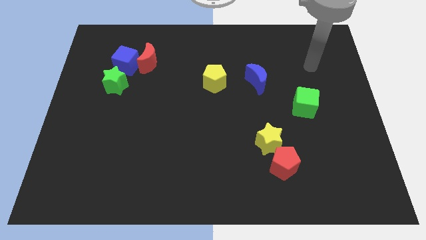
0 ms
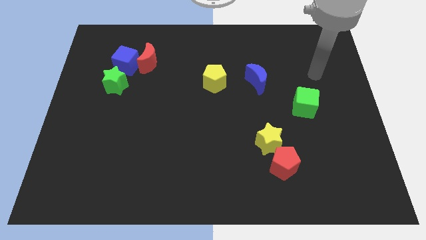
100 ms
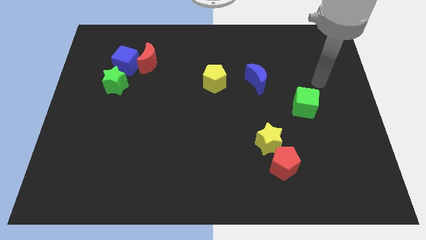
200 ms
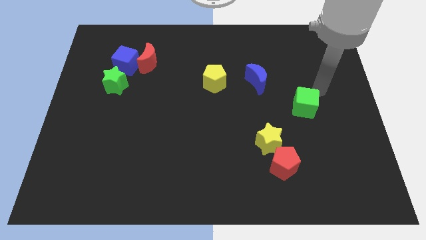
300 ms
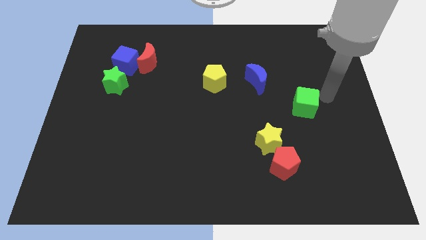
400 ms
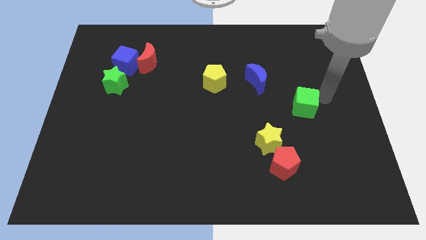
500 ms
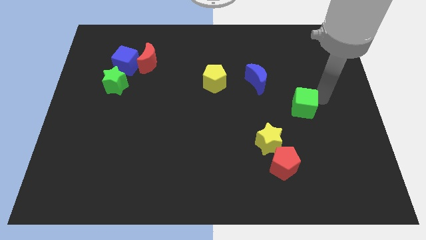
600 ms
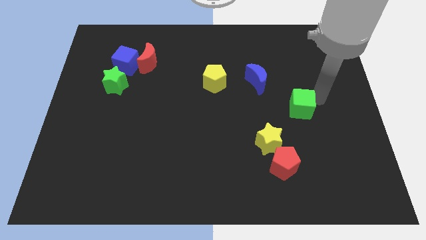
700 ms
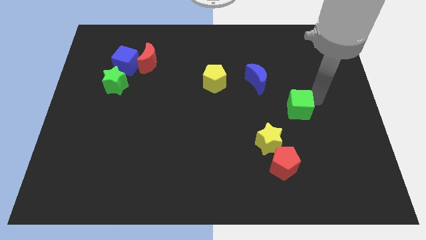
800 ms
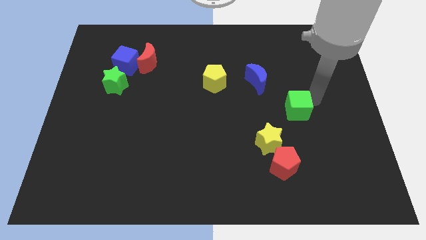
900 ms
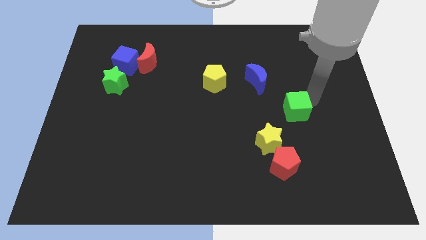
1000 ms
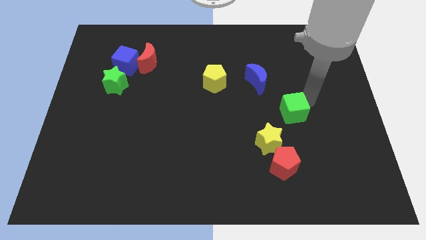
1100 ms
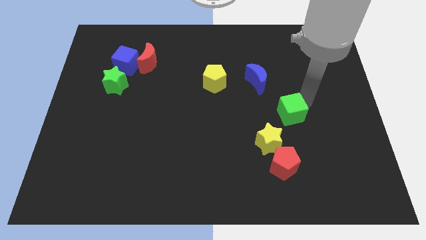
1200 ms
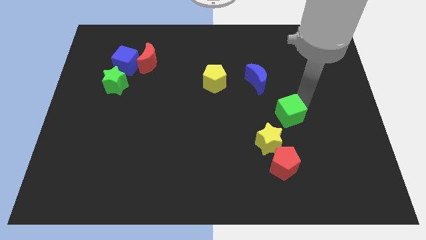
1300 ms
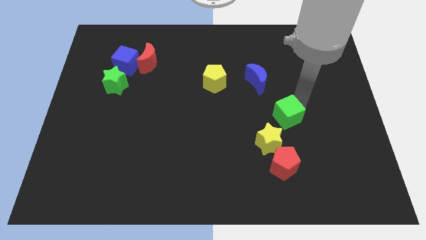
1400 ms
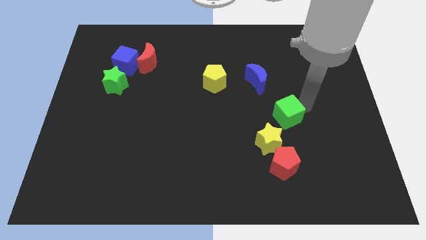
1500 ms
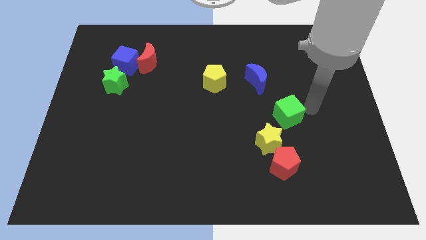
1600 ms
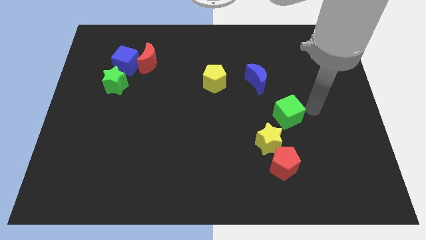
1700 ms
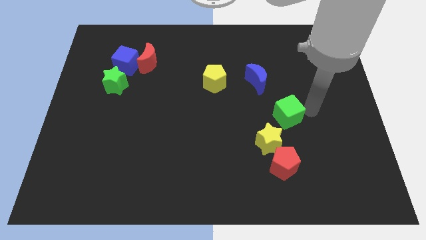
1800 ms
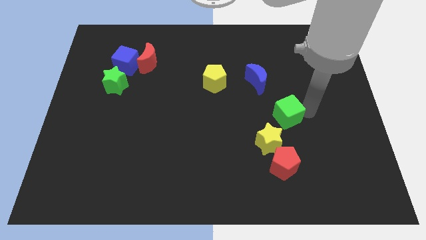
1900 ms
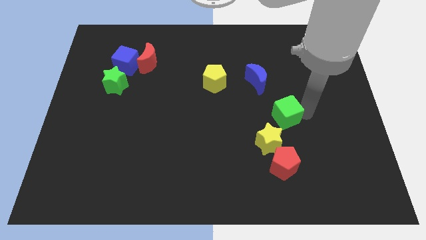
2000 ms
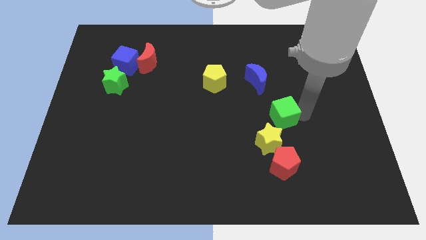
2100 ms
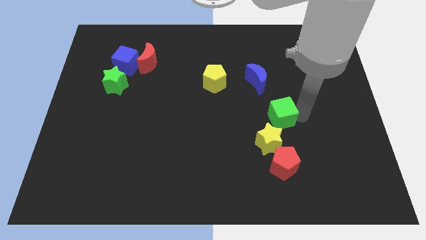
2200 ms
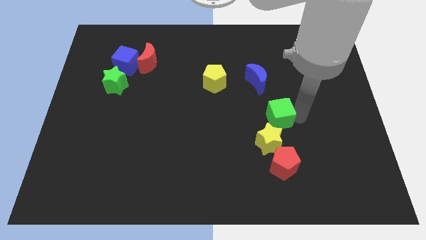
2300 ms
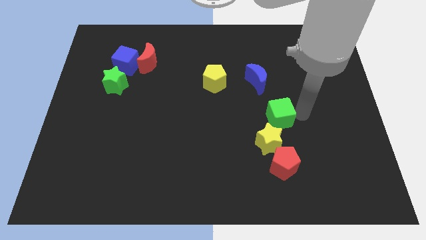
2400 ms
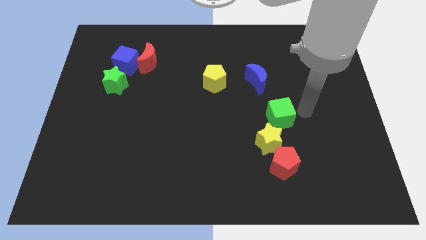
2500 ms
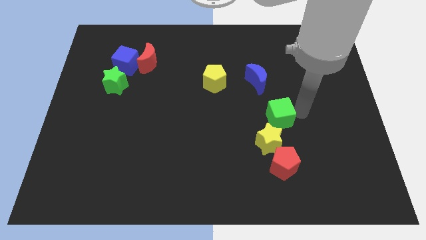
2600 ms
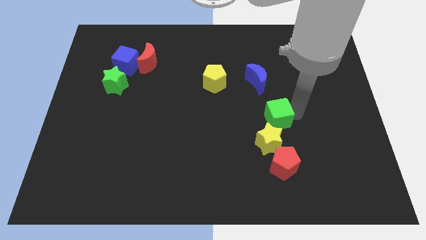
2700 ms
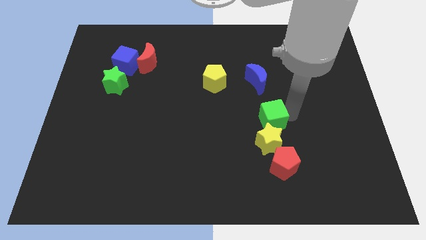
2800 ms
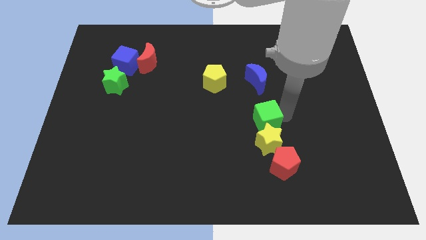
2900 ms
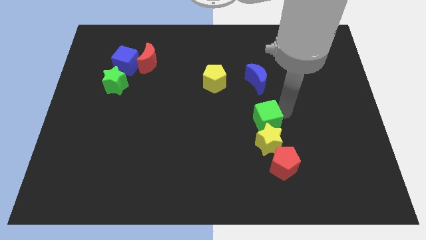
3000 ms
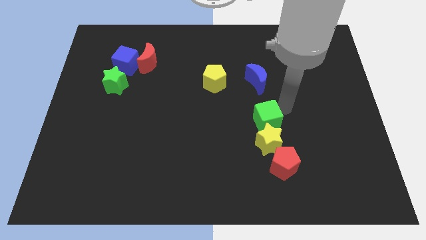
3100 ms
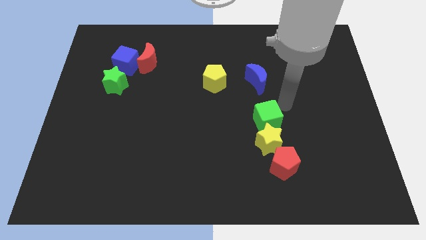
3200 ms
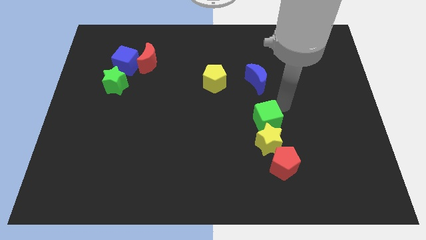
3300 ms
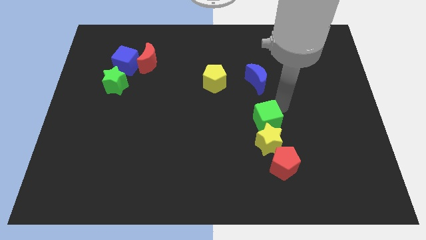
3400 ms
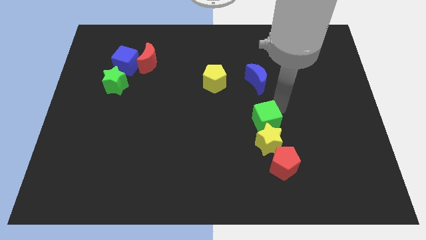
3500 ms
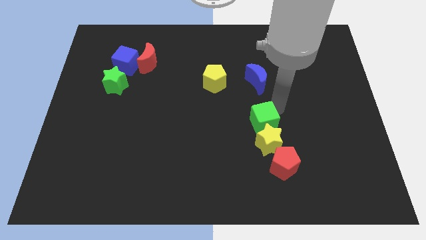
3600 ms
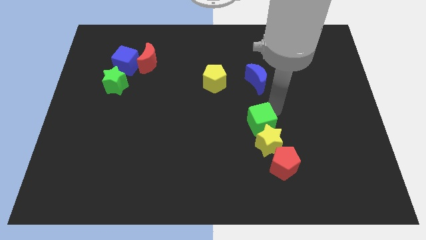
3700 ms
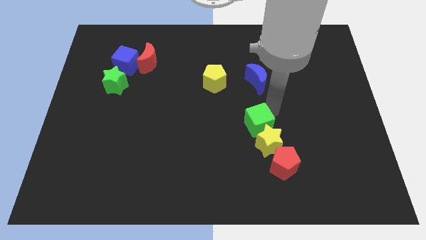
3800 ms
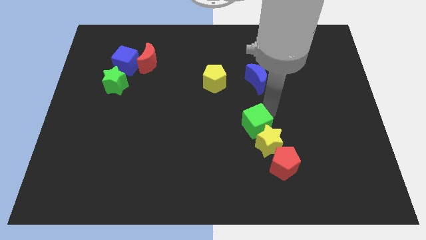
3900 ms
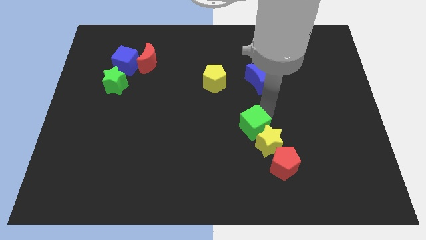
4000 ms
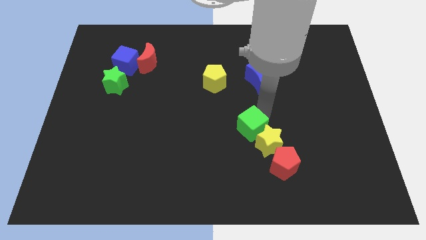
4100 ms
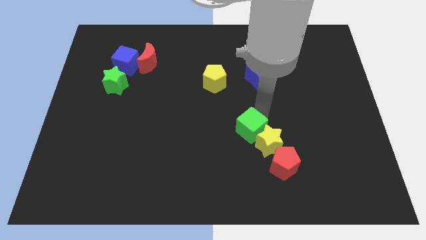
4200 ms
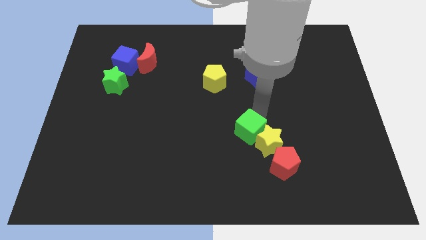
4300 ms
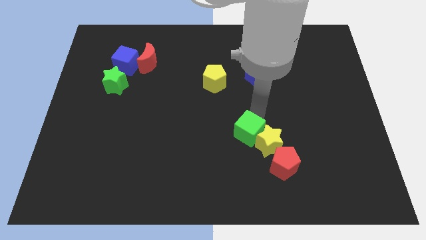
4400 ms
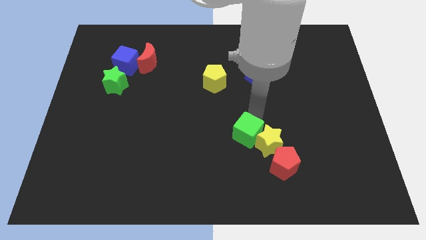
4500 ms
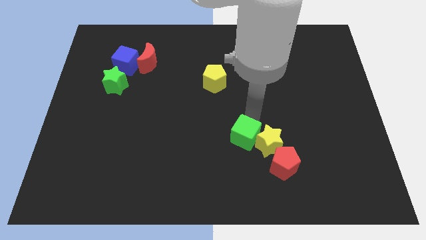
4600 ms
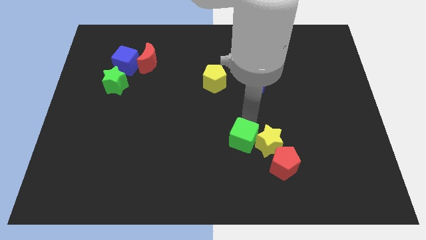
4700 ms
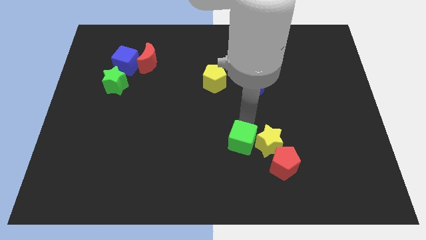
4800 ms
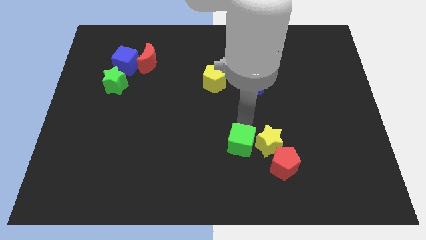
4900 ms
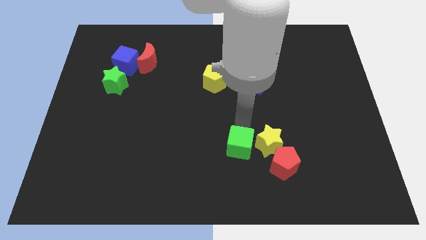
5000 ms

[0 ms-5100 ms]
put the green cube left of the red pentagon

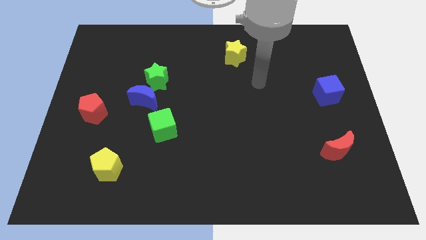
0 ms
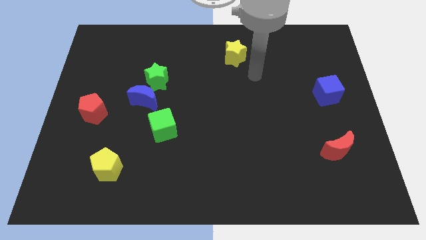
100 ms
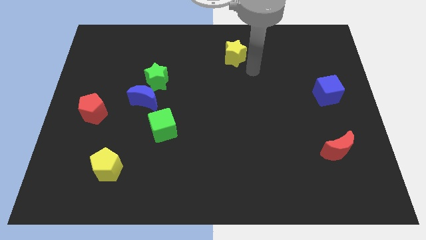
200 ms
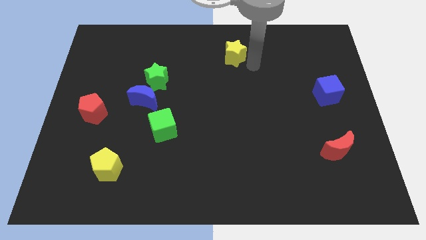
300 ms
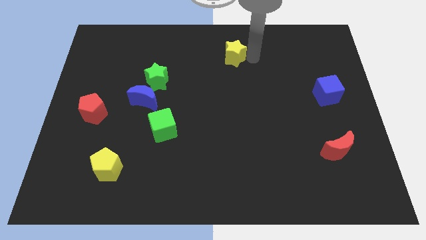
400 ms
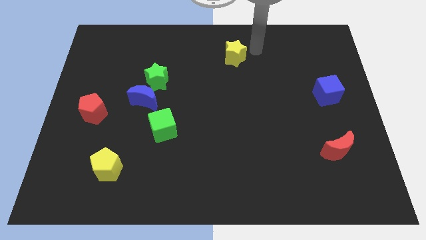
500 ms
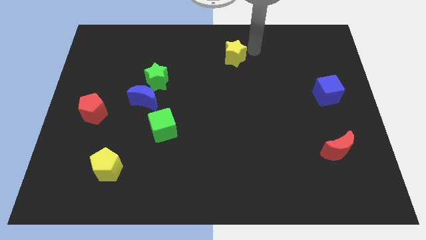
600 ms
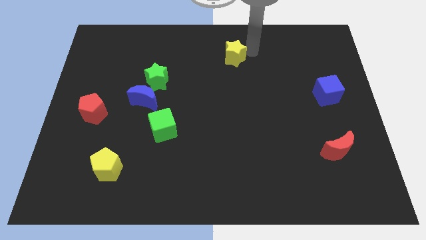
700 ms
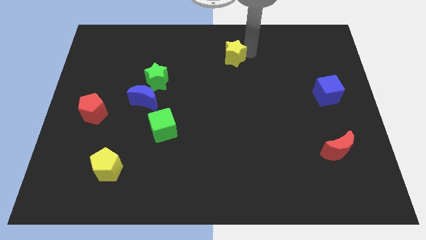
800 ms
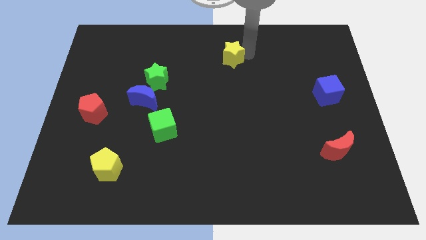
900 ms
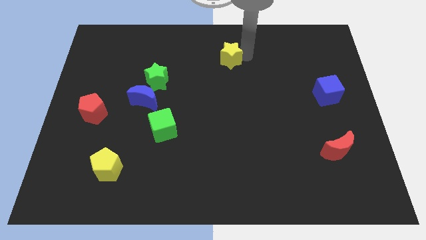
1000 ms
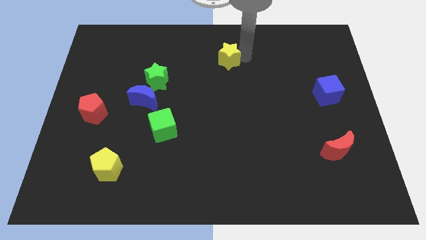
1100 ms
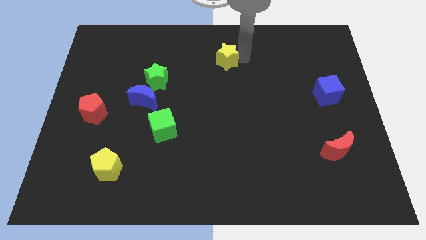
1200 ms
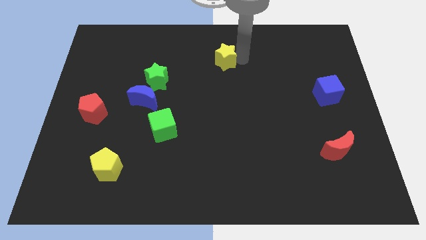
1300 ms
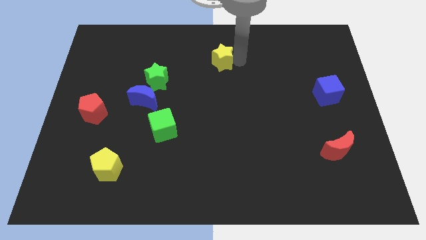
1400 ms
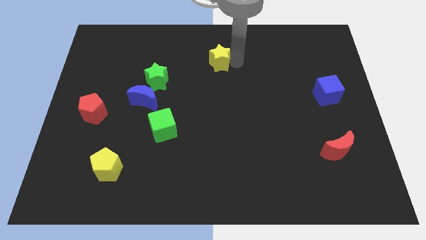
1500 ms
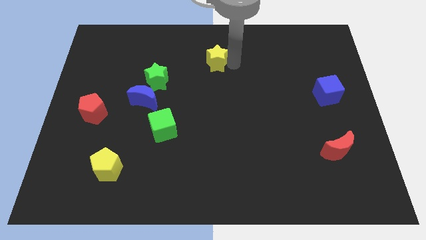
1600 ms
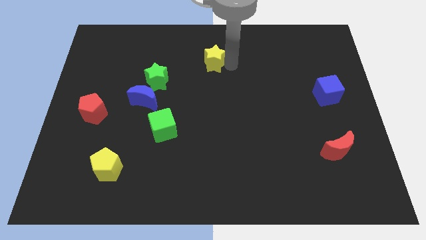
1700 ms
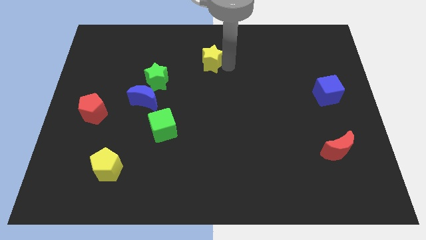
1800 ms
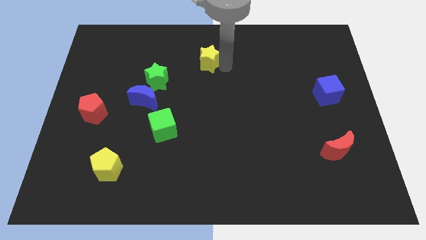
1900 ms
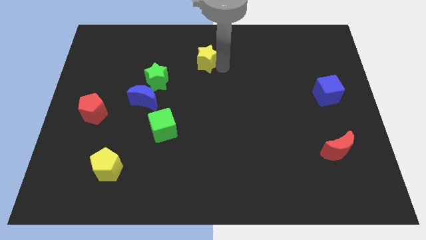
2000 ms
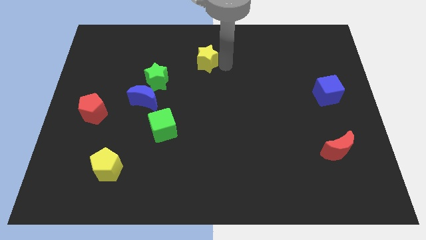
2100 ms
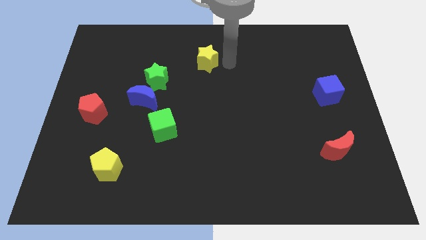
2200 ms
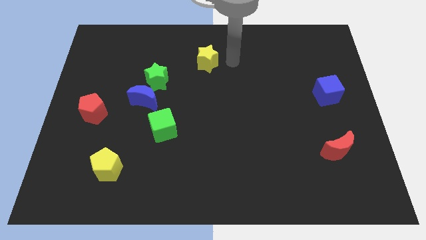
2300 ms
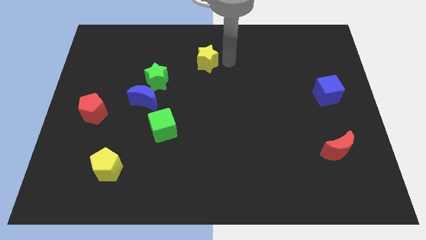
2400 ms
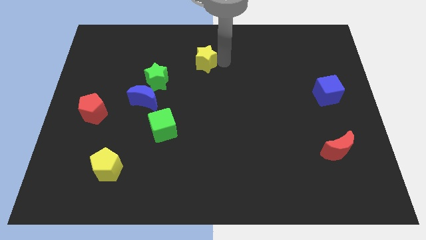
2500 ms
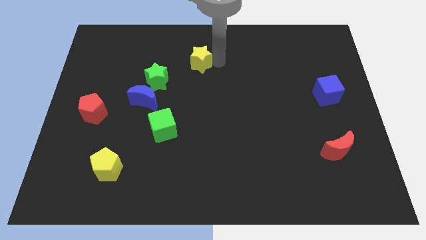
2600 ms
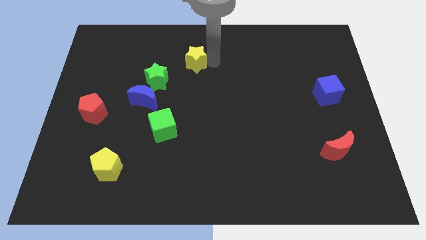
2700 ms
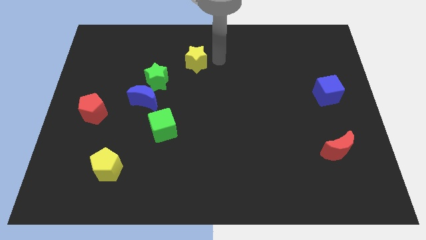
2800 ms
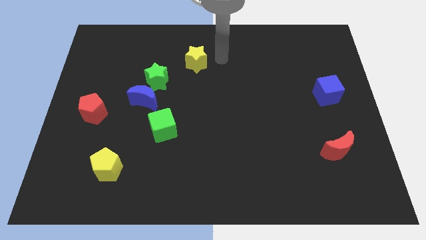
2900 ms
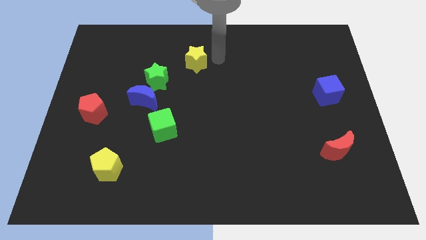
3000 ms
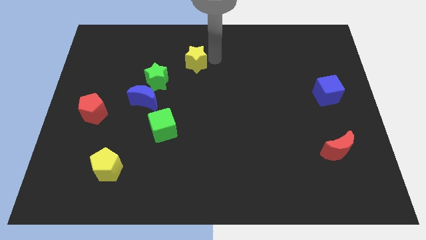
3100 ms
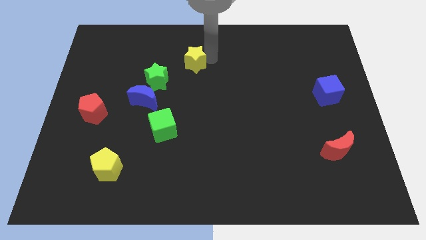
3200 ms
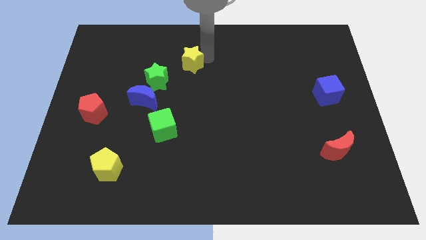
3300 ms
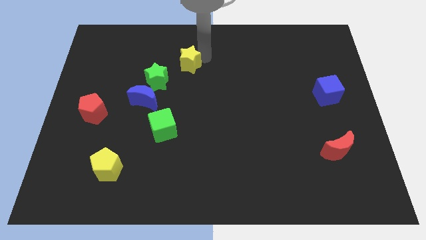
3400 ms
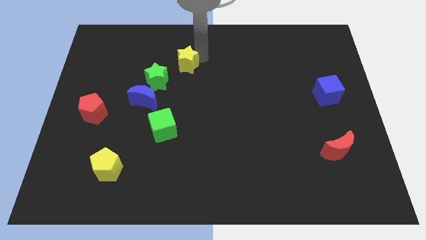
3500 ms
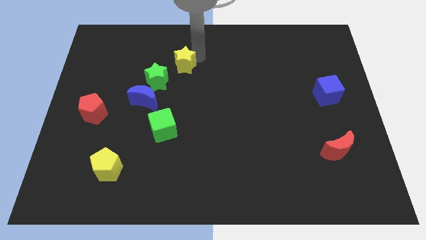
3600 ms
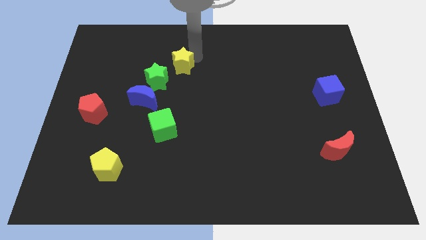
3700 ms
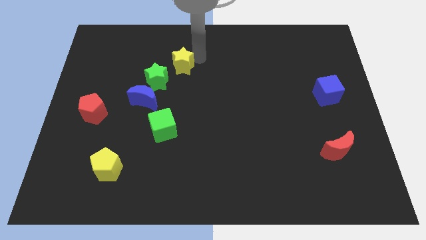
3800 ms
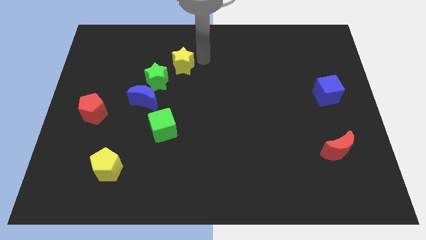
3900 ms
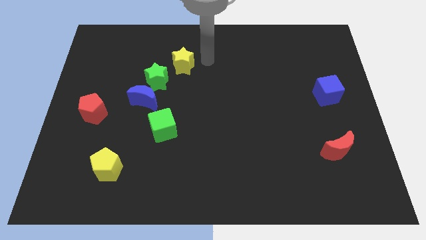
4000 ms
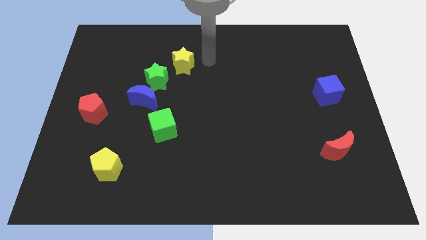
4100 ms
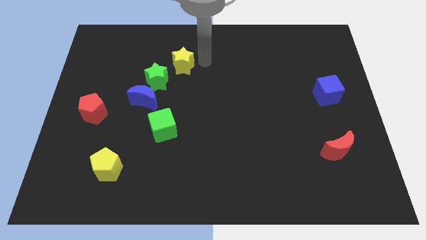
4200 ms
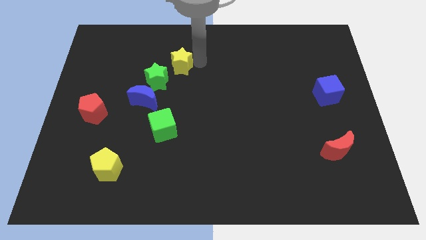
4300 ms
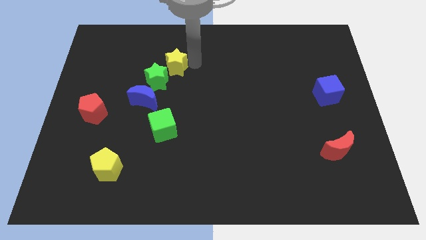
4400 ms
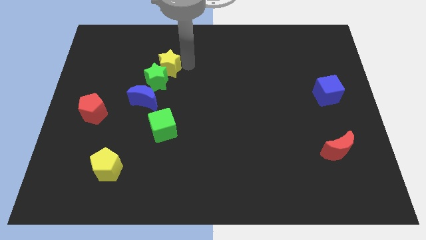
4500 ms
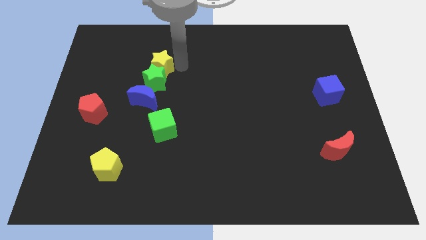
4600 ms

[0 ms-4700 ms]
move the yellow star to the top side of the blue moon
